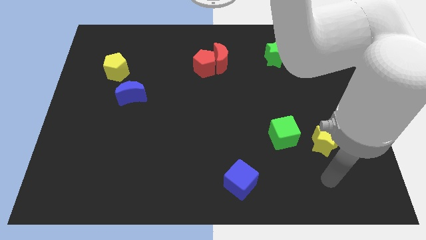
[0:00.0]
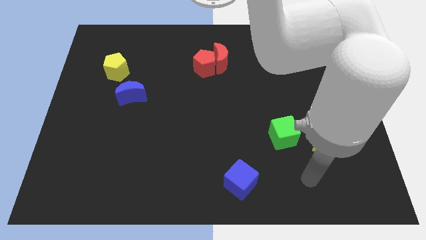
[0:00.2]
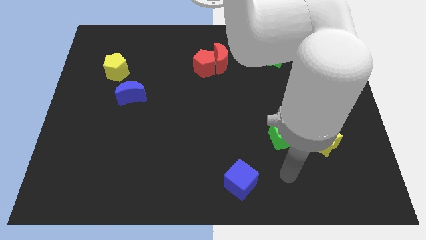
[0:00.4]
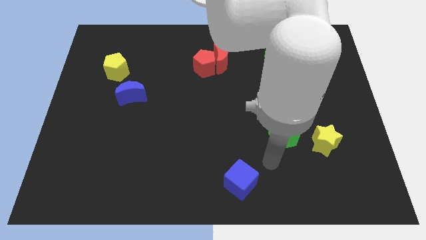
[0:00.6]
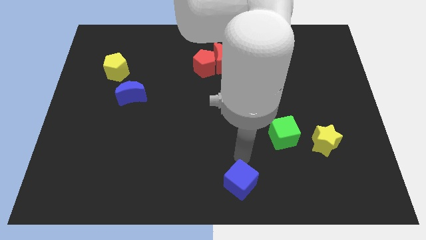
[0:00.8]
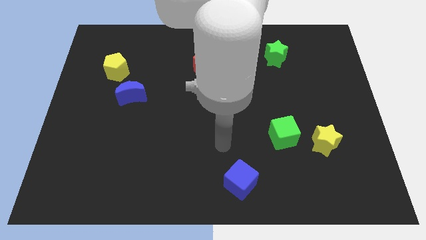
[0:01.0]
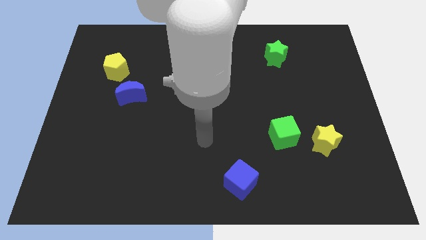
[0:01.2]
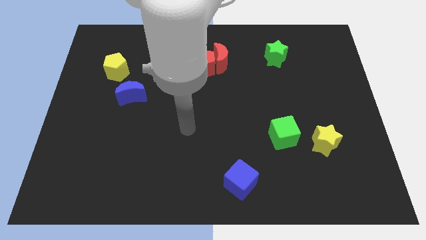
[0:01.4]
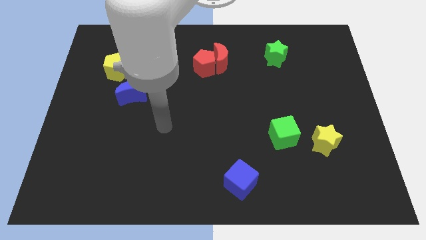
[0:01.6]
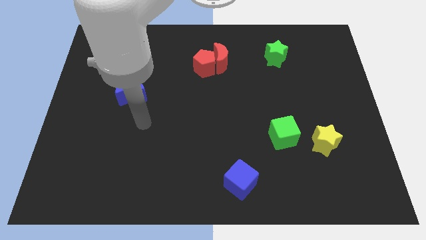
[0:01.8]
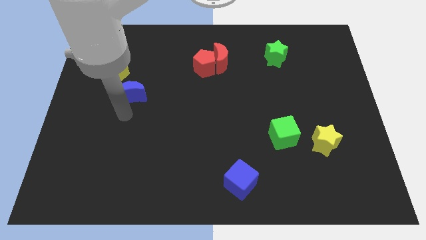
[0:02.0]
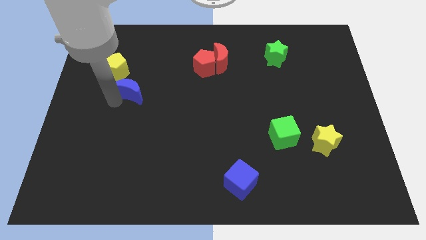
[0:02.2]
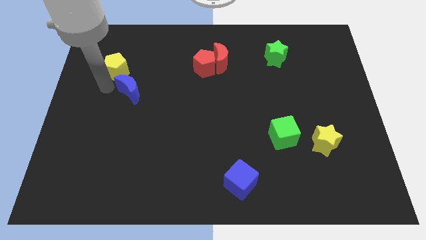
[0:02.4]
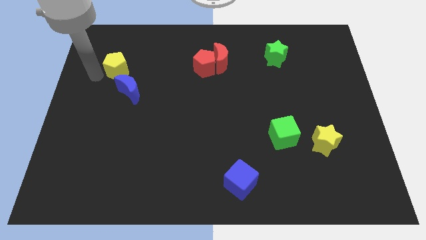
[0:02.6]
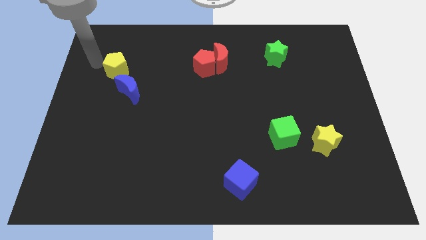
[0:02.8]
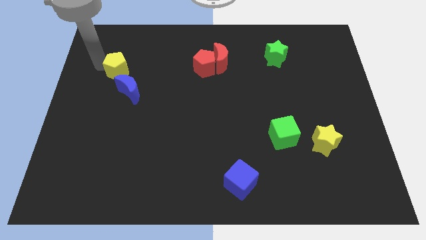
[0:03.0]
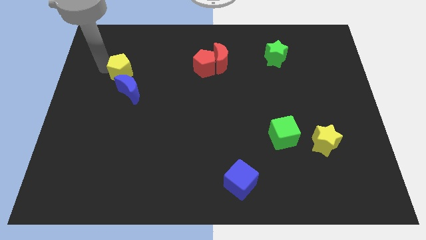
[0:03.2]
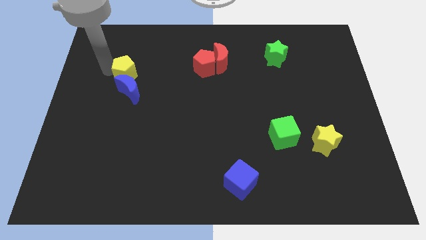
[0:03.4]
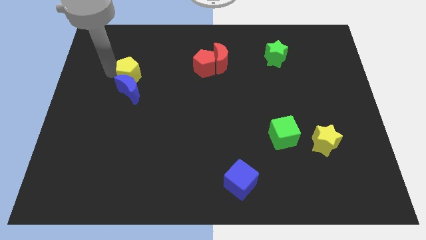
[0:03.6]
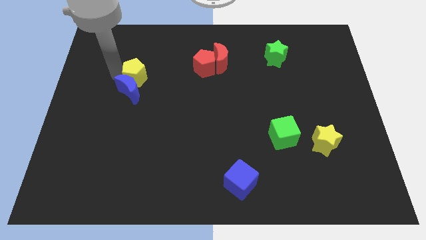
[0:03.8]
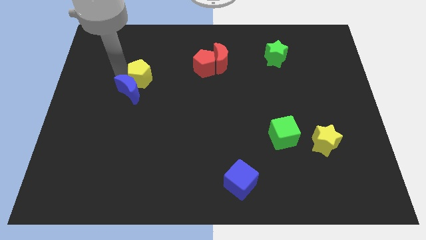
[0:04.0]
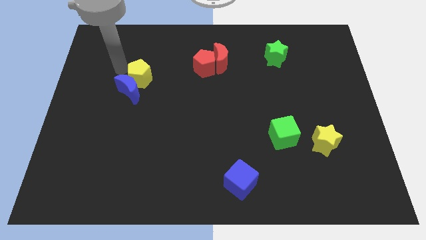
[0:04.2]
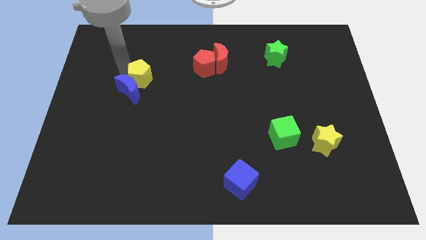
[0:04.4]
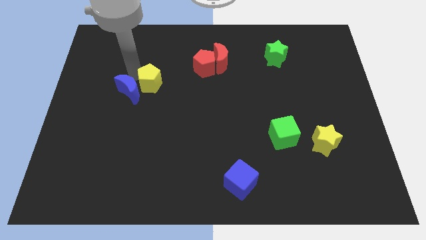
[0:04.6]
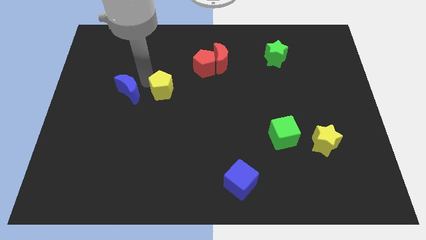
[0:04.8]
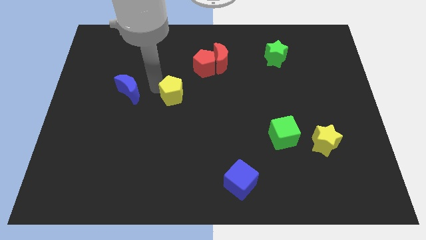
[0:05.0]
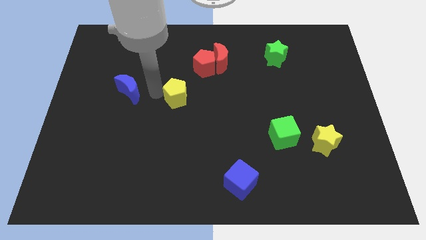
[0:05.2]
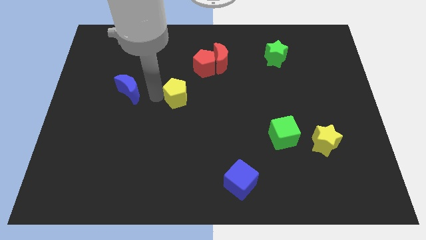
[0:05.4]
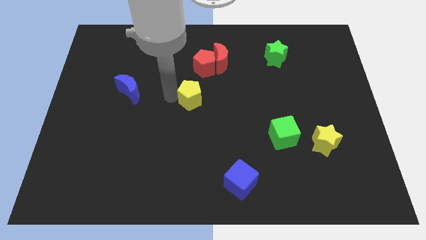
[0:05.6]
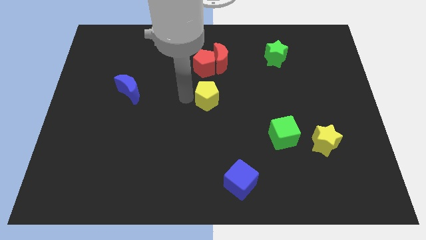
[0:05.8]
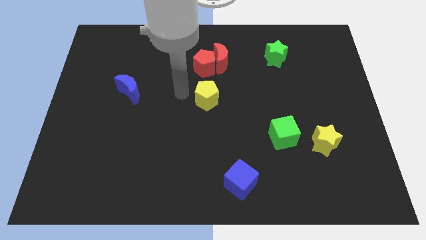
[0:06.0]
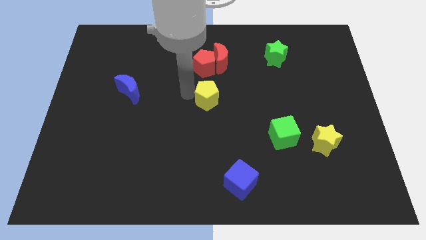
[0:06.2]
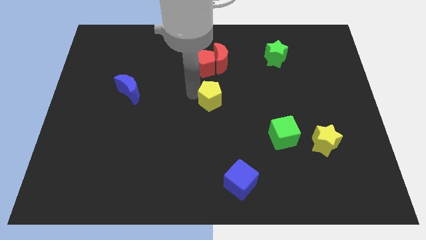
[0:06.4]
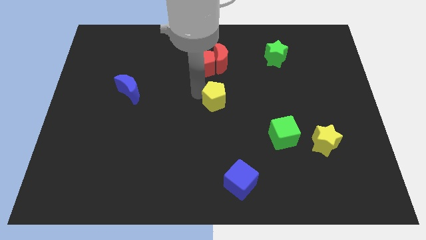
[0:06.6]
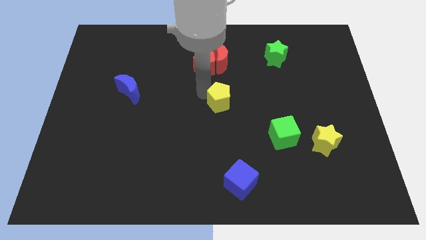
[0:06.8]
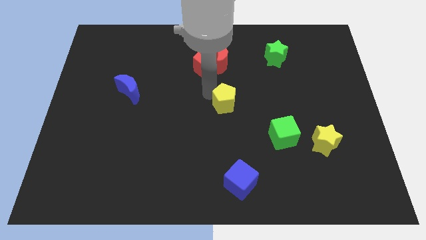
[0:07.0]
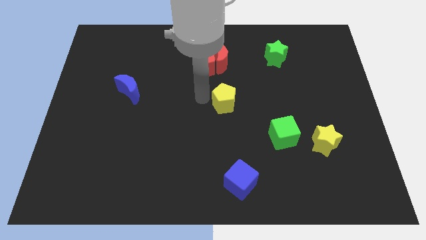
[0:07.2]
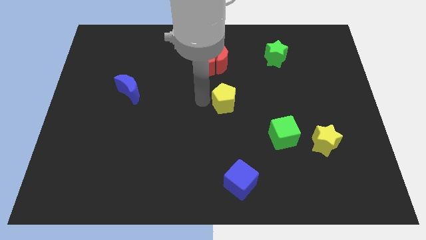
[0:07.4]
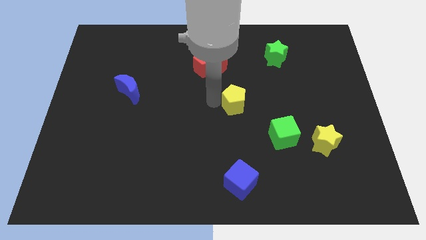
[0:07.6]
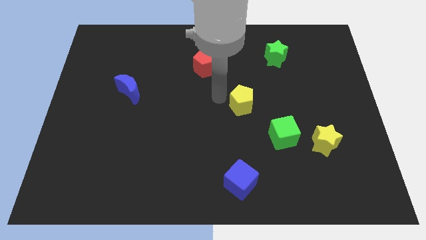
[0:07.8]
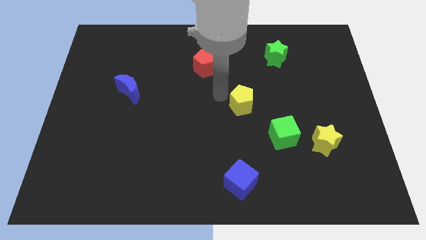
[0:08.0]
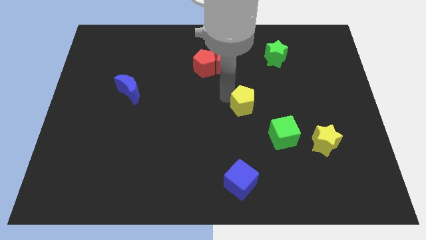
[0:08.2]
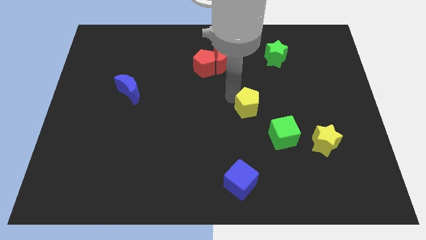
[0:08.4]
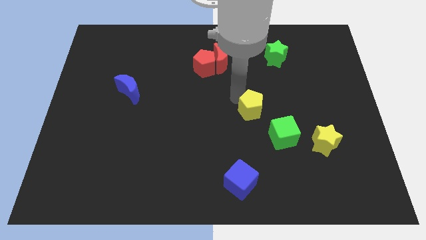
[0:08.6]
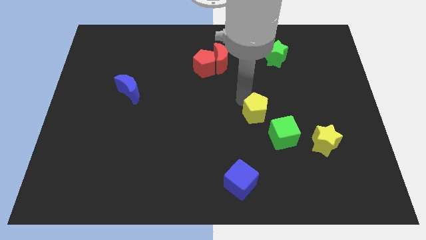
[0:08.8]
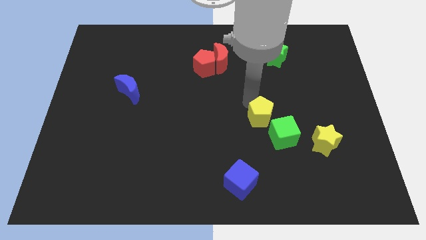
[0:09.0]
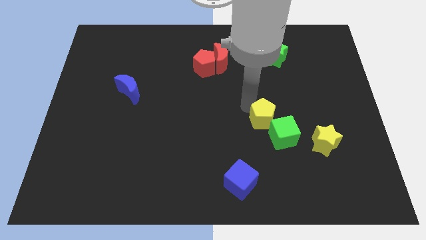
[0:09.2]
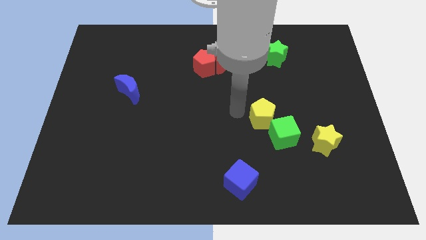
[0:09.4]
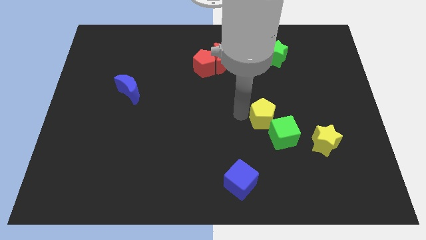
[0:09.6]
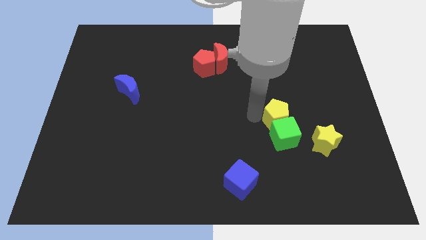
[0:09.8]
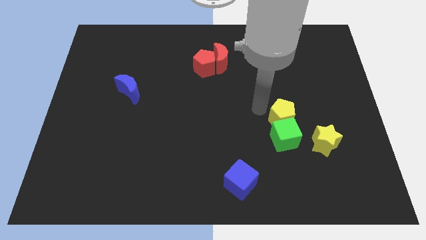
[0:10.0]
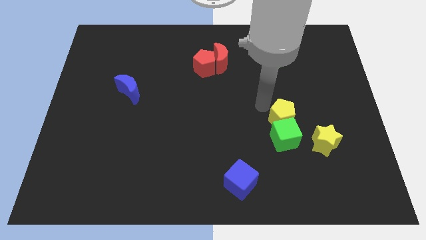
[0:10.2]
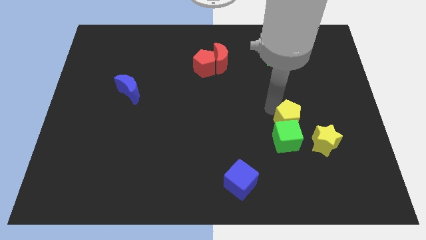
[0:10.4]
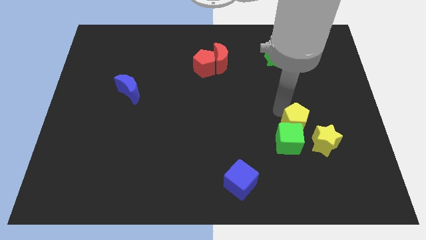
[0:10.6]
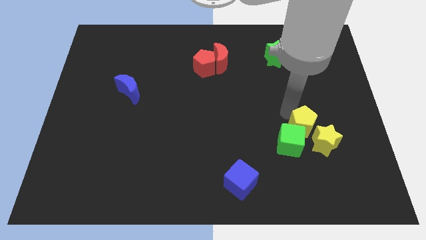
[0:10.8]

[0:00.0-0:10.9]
push the yellow pentagon next to the yellow star

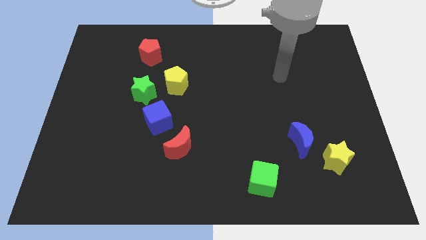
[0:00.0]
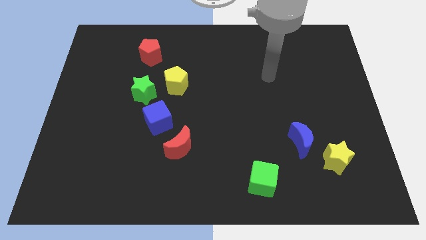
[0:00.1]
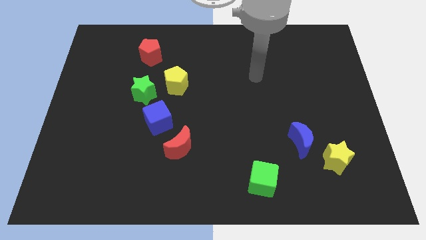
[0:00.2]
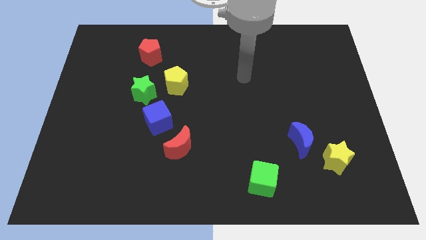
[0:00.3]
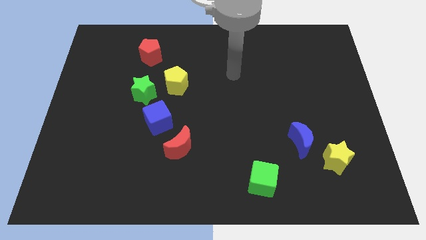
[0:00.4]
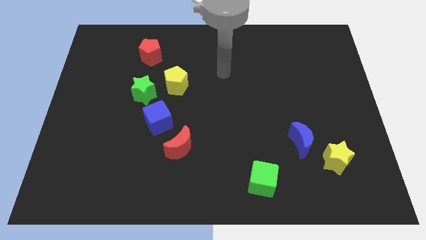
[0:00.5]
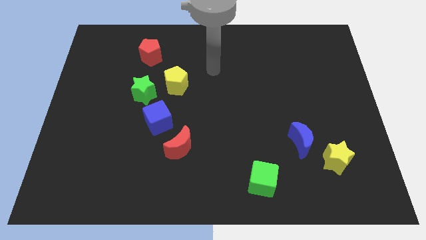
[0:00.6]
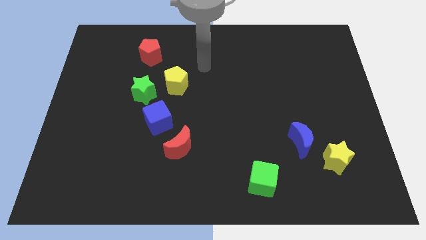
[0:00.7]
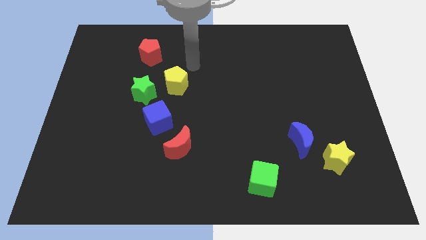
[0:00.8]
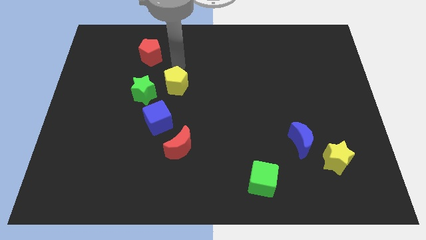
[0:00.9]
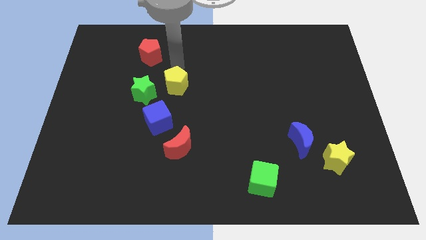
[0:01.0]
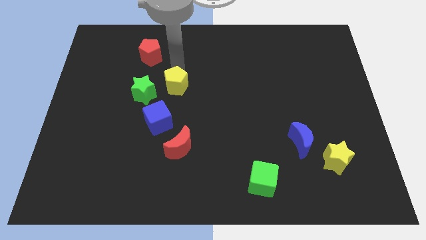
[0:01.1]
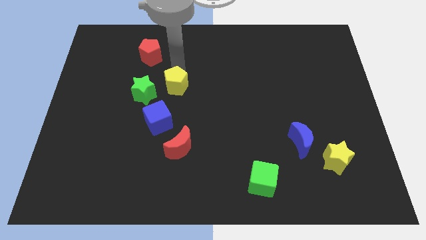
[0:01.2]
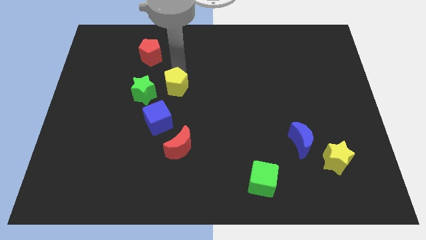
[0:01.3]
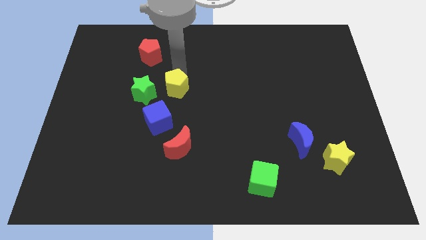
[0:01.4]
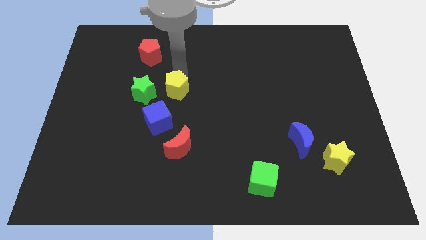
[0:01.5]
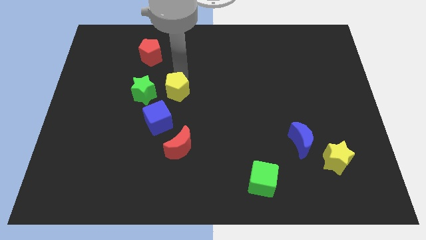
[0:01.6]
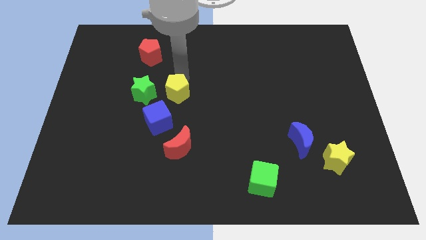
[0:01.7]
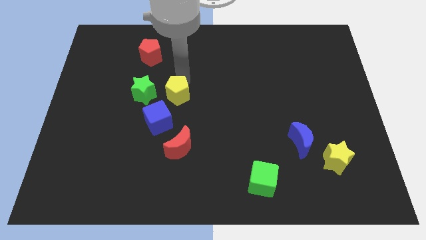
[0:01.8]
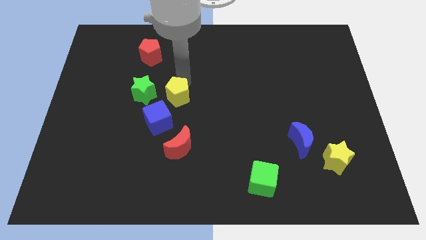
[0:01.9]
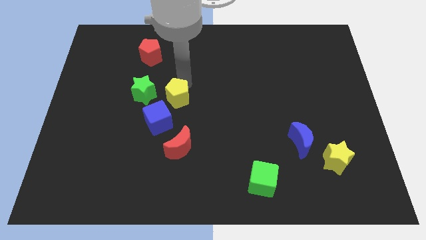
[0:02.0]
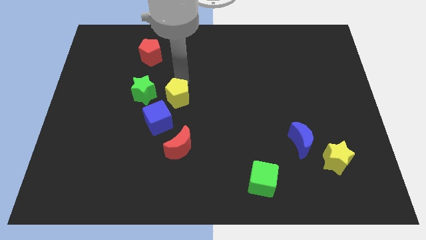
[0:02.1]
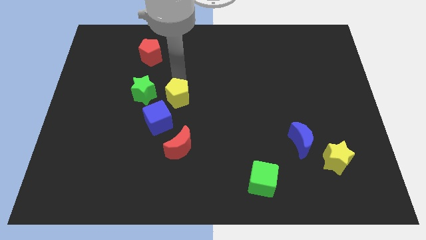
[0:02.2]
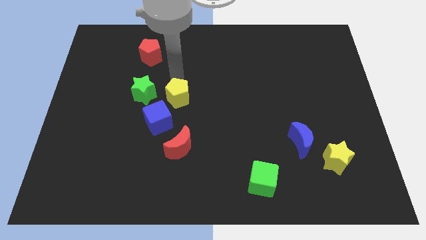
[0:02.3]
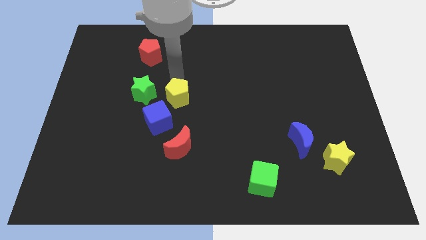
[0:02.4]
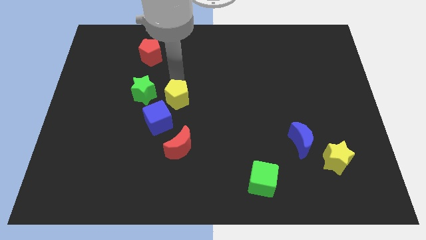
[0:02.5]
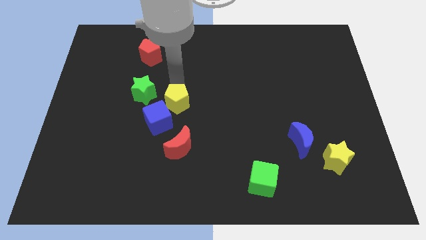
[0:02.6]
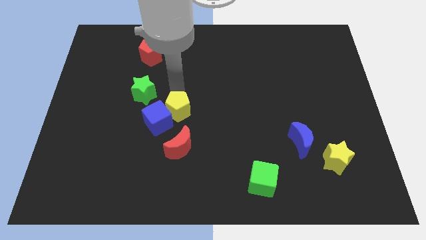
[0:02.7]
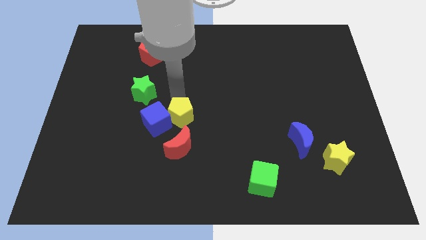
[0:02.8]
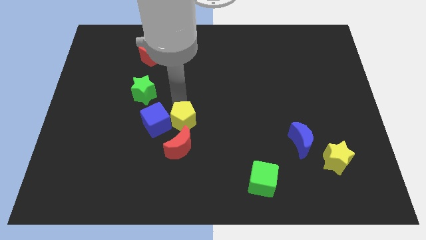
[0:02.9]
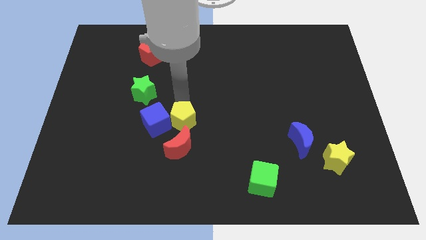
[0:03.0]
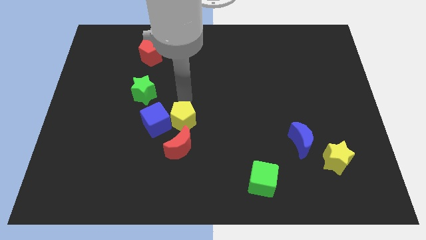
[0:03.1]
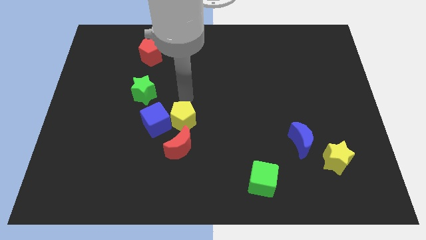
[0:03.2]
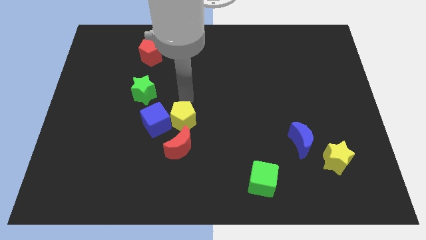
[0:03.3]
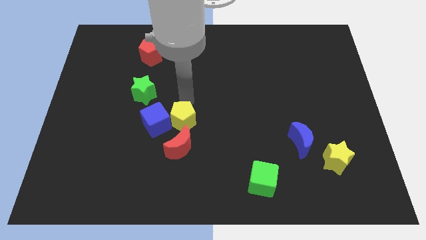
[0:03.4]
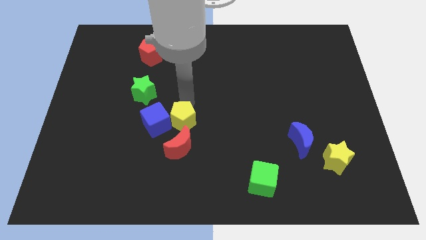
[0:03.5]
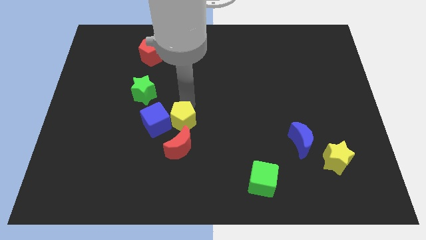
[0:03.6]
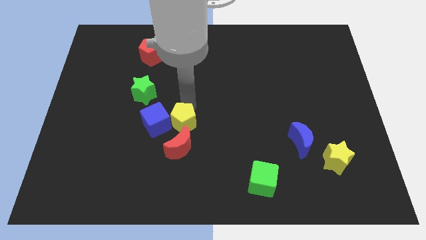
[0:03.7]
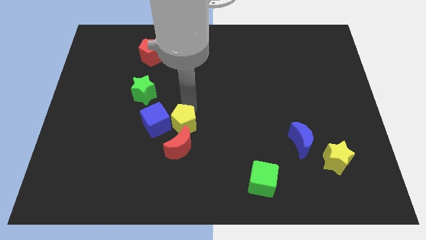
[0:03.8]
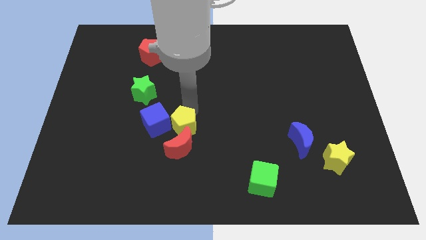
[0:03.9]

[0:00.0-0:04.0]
move the yellow pentagon towards the red moon
